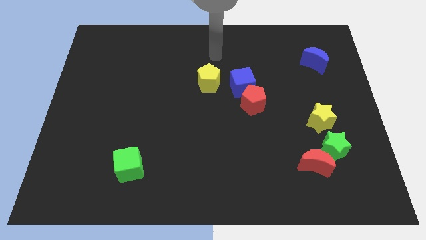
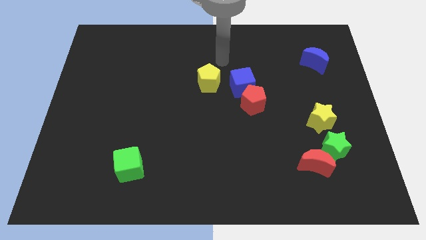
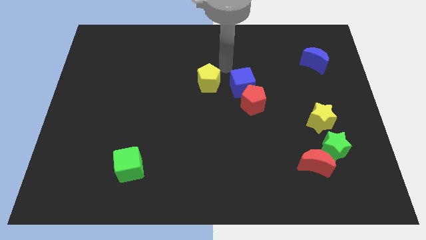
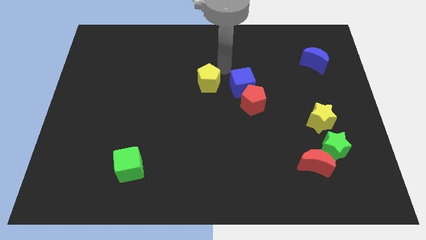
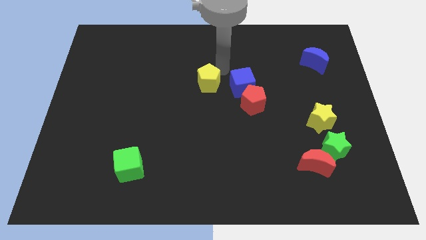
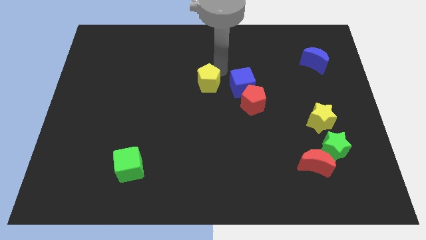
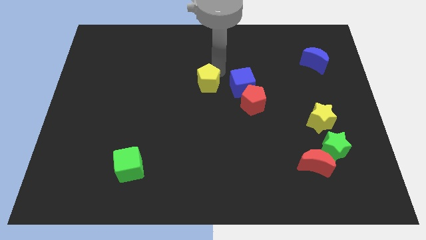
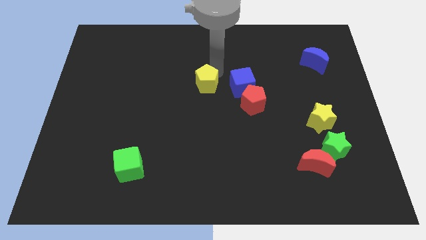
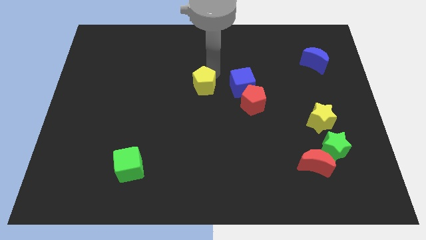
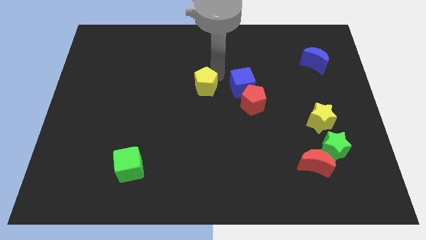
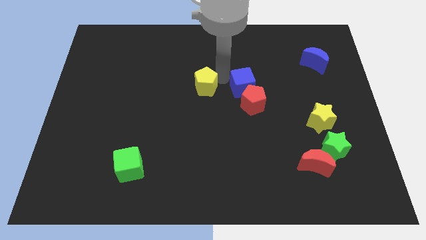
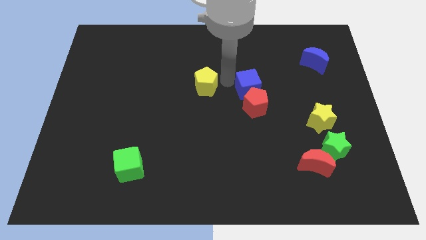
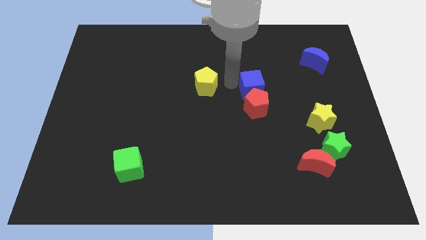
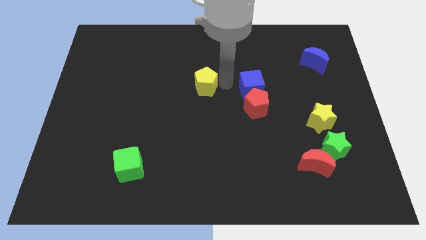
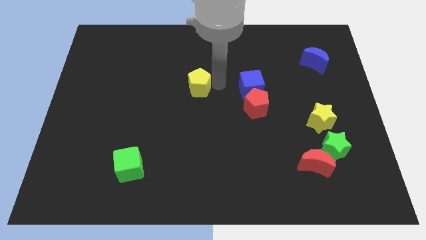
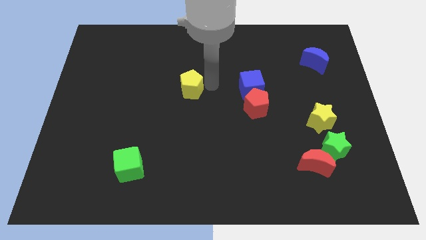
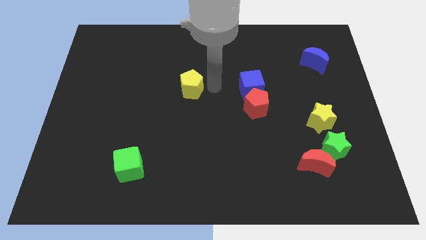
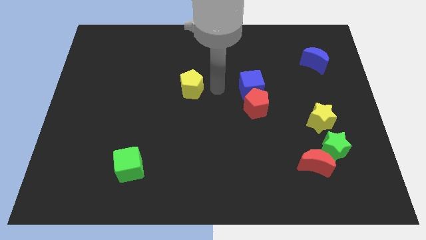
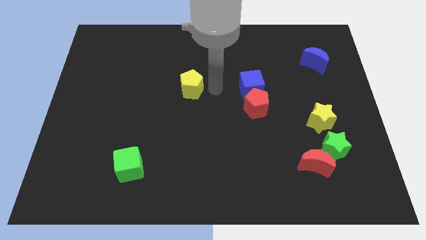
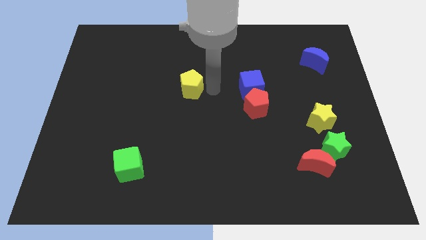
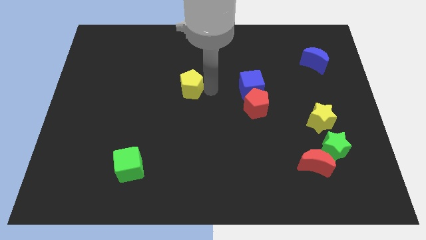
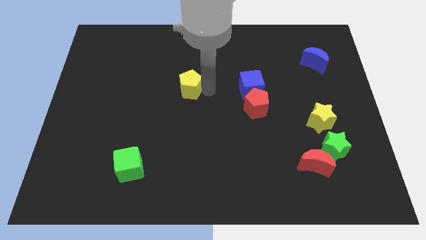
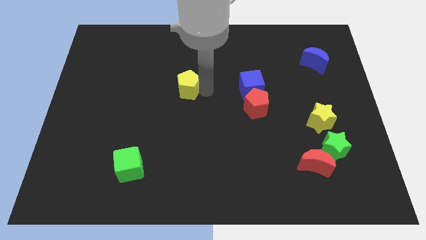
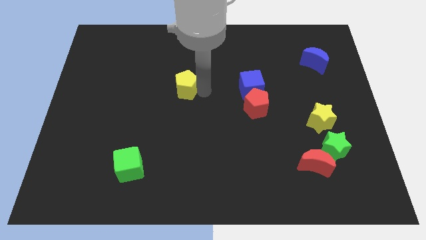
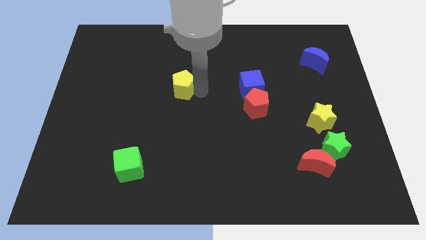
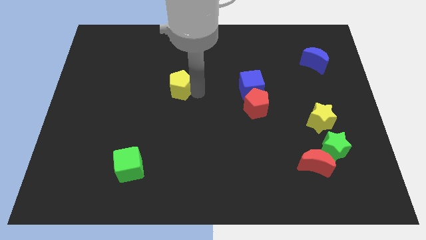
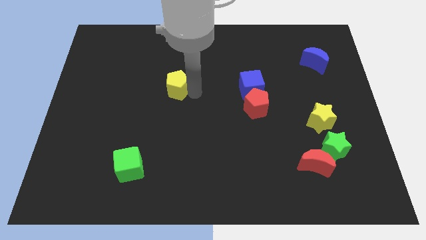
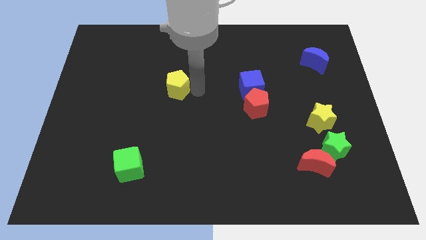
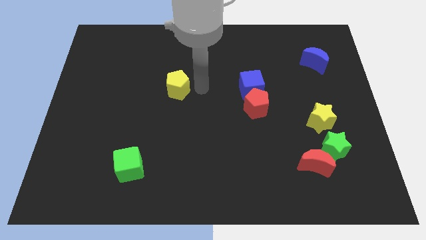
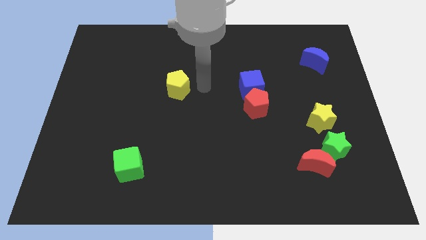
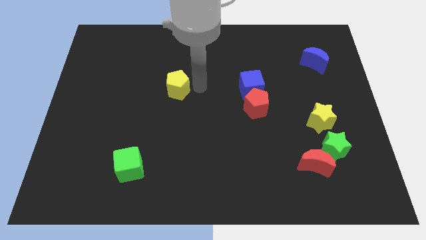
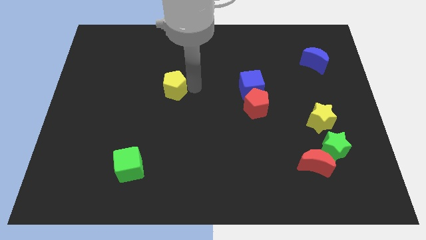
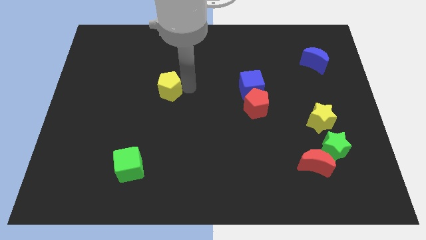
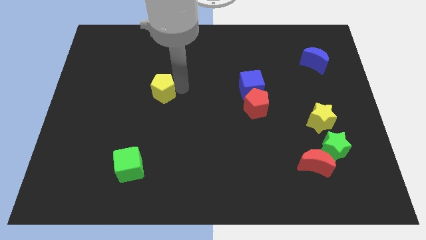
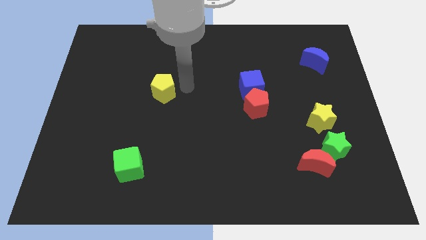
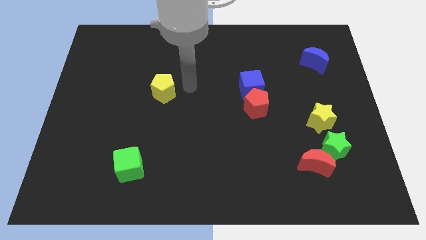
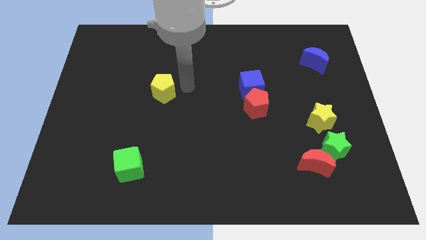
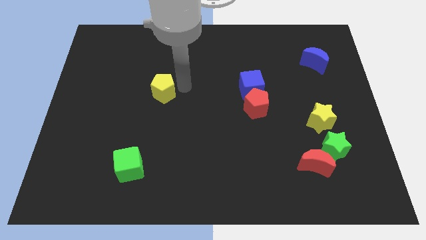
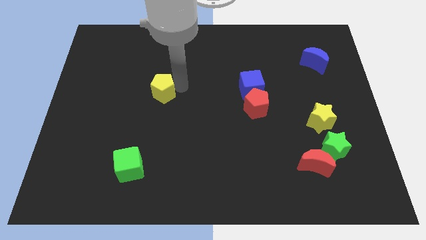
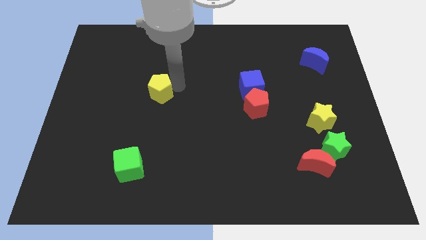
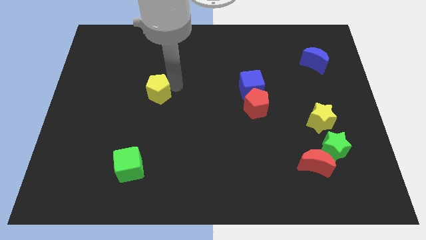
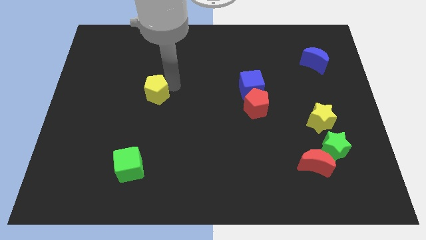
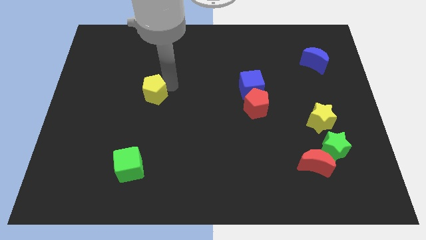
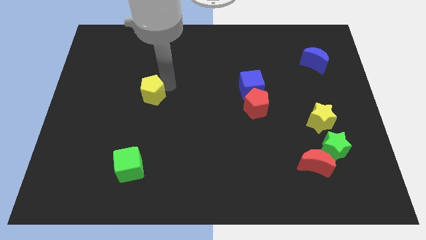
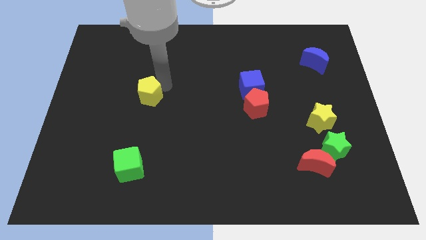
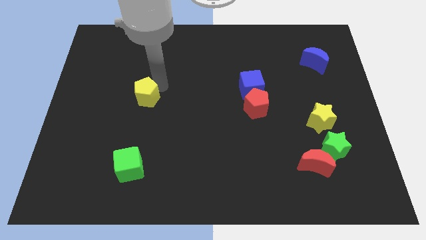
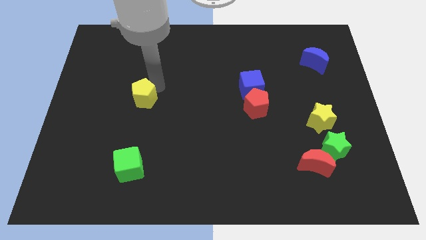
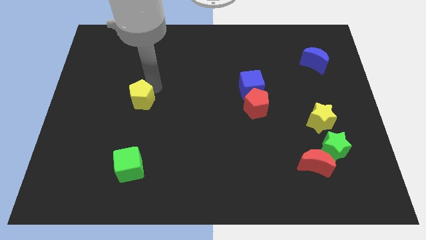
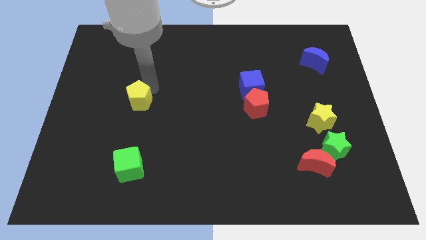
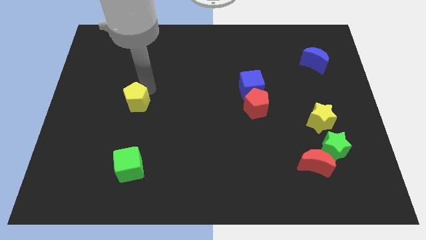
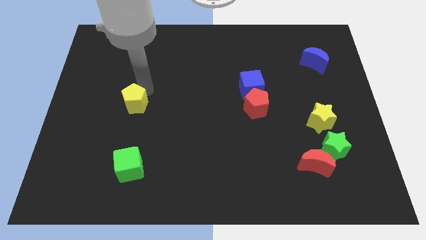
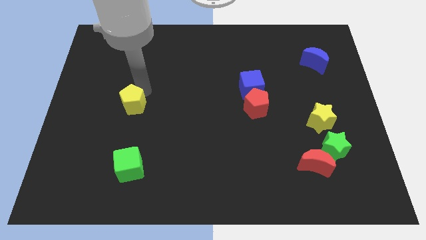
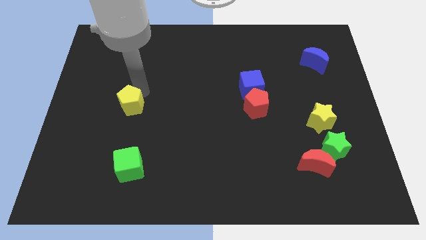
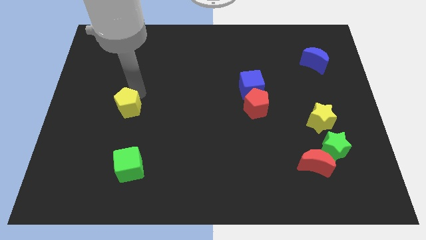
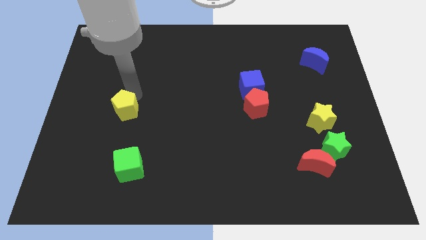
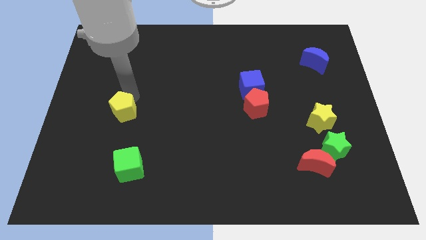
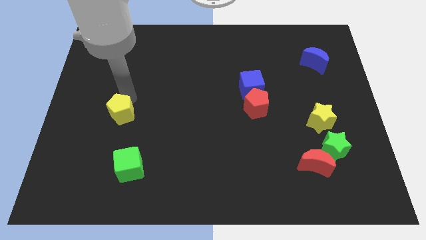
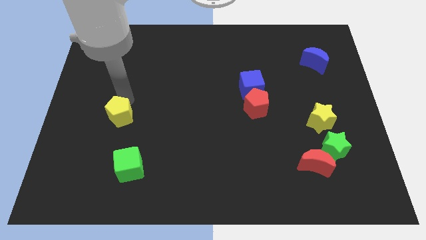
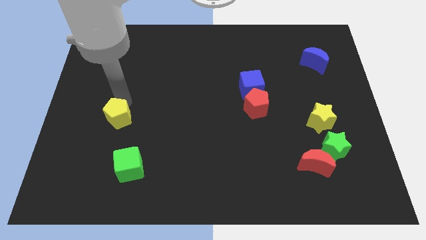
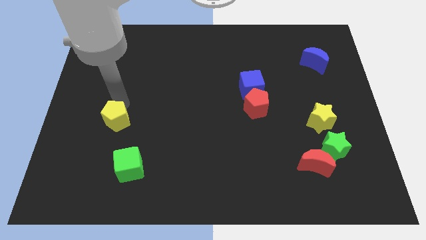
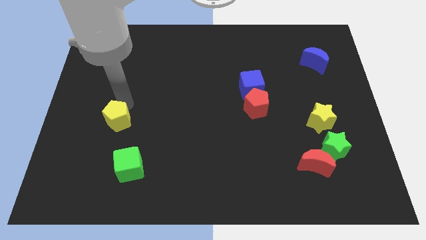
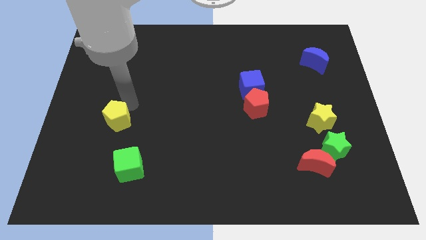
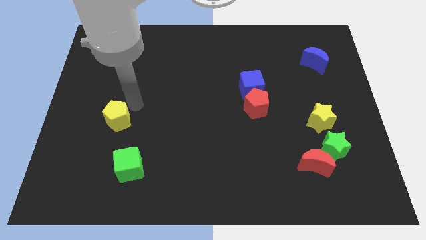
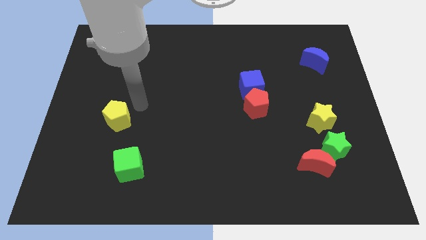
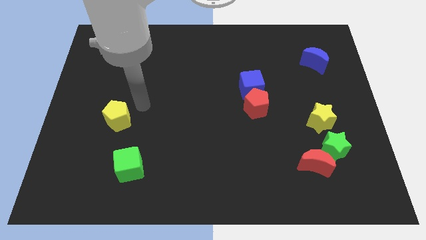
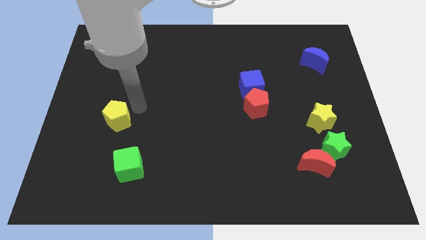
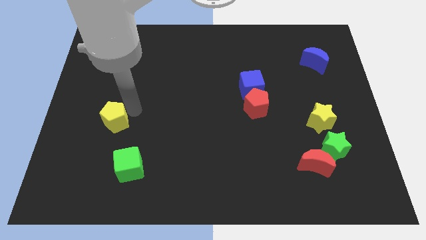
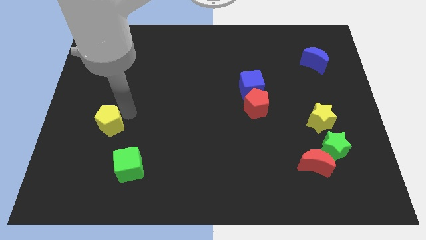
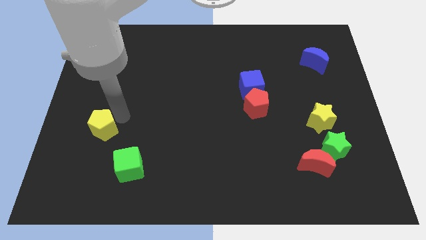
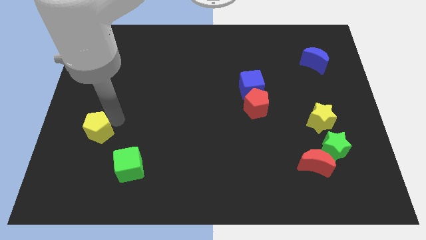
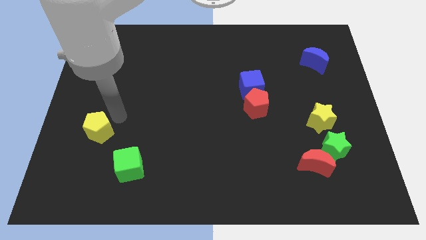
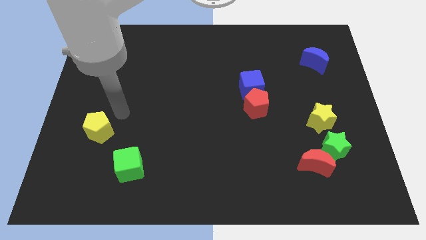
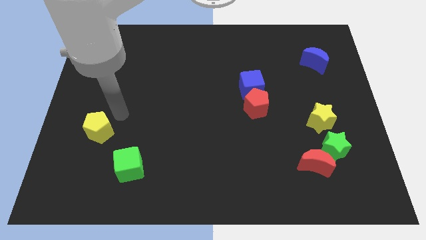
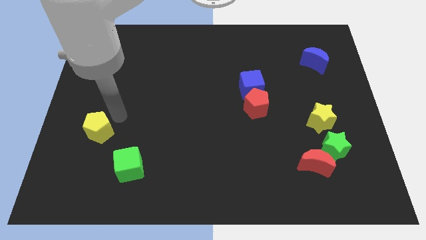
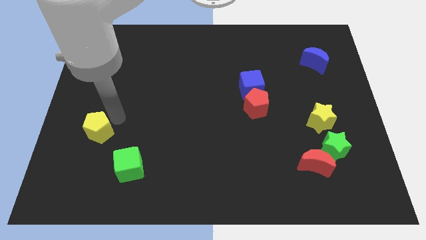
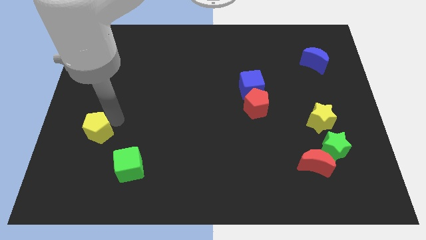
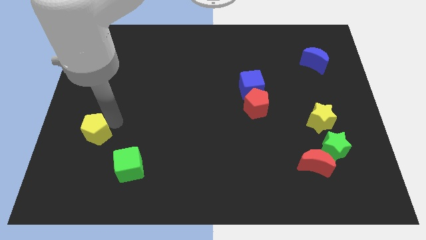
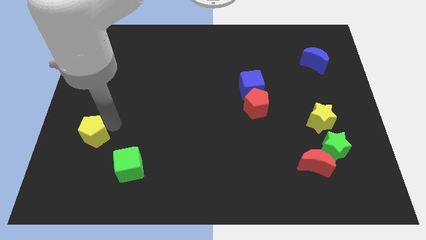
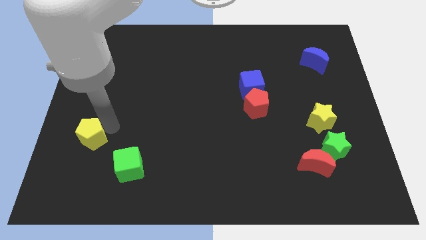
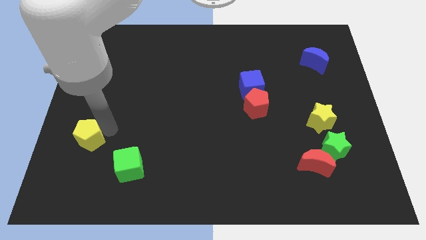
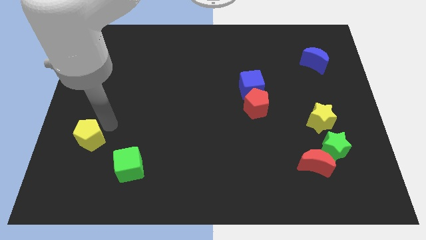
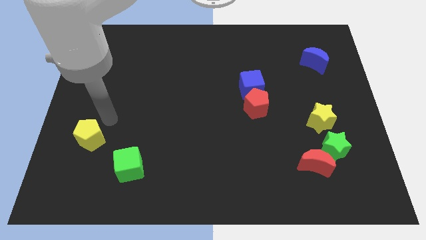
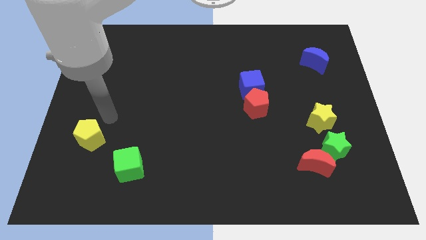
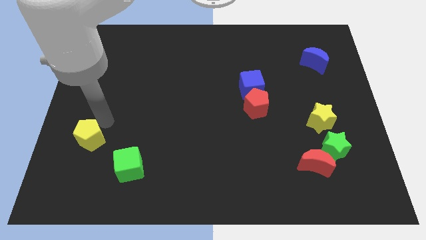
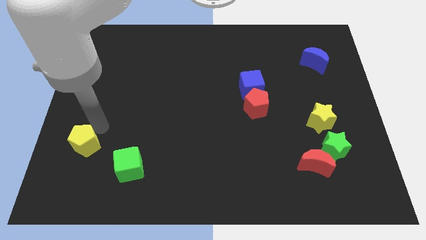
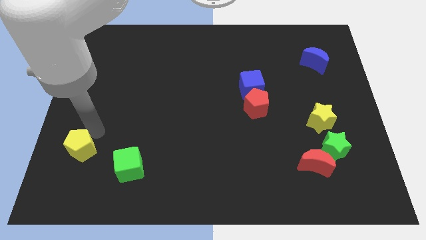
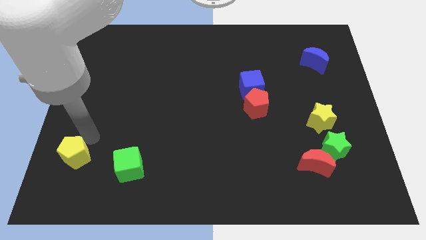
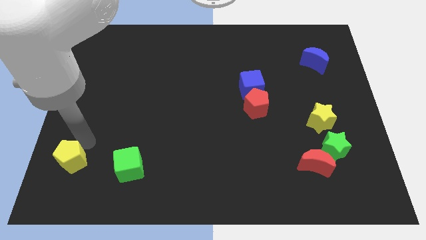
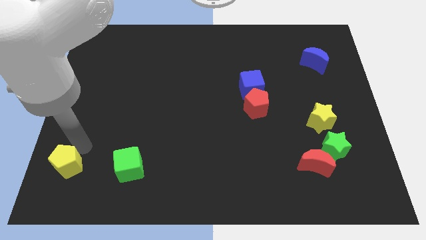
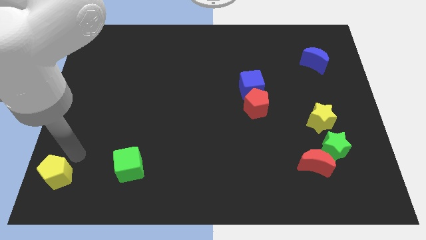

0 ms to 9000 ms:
slide the yellow pentagon to the bottom left of the board
